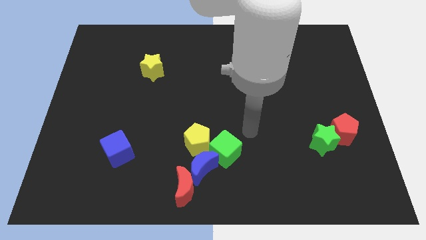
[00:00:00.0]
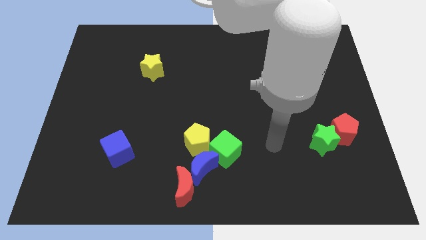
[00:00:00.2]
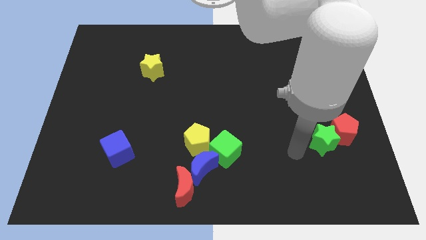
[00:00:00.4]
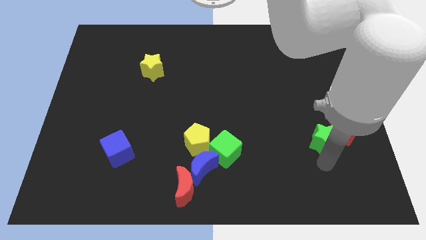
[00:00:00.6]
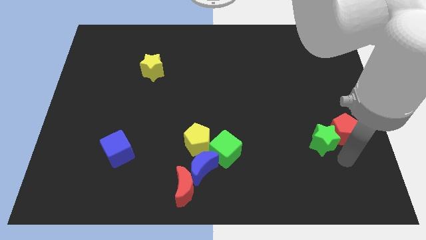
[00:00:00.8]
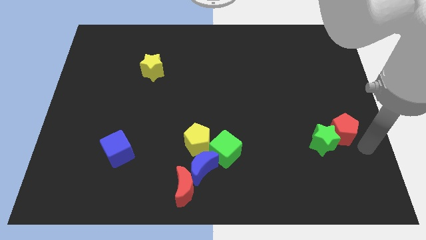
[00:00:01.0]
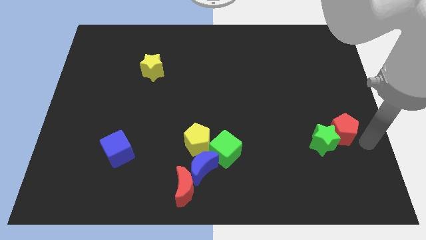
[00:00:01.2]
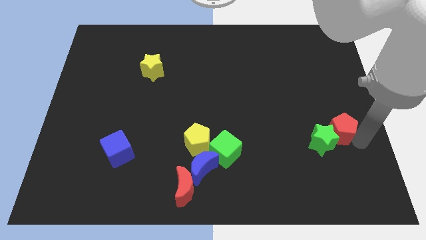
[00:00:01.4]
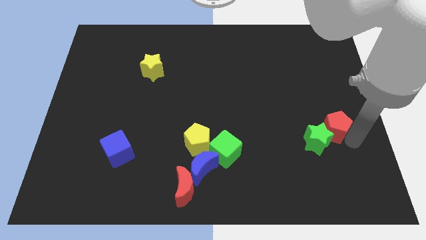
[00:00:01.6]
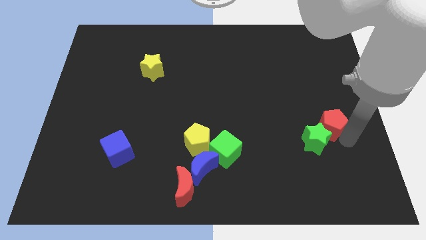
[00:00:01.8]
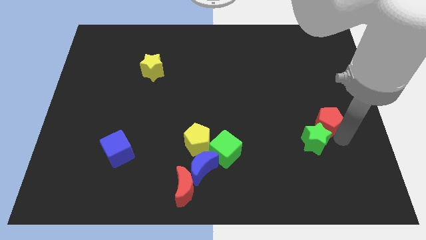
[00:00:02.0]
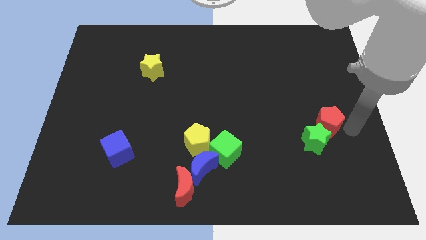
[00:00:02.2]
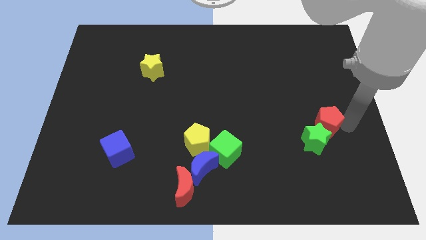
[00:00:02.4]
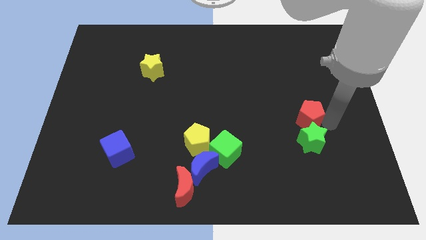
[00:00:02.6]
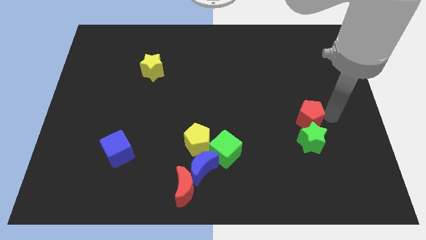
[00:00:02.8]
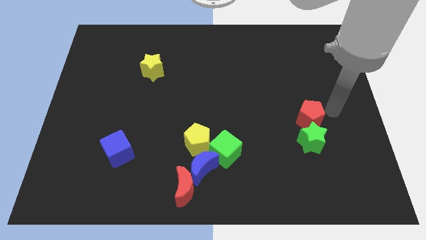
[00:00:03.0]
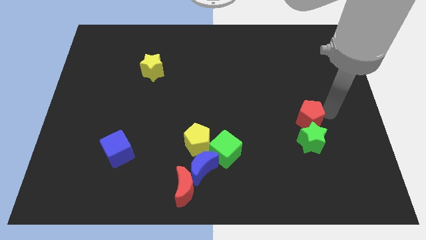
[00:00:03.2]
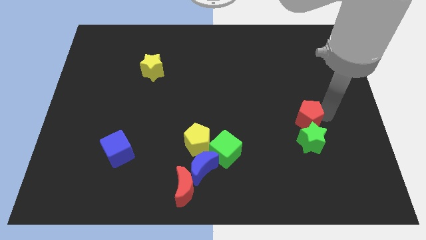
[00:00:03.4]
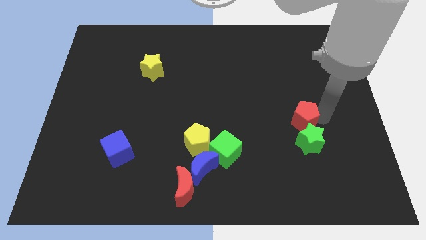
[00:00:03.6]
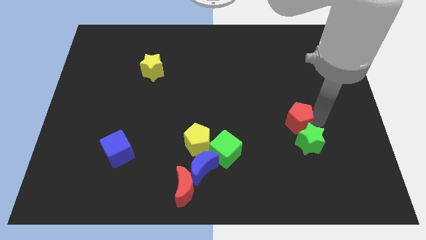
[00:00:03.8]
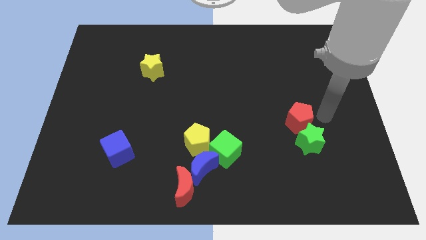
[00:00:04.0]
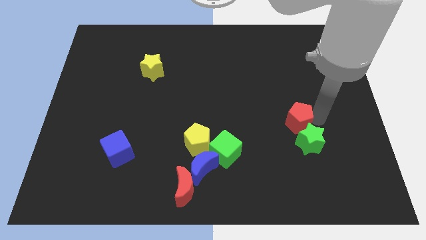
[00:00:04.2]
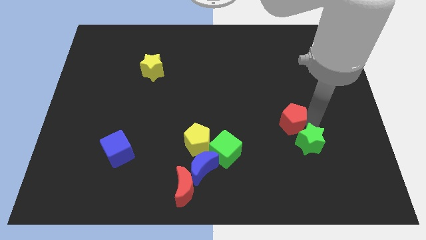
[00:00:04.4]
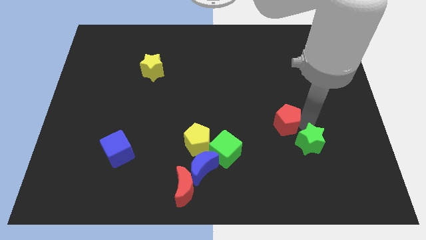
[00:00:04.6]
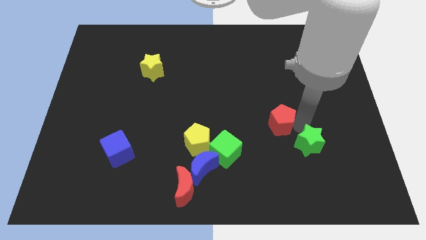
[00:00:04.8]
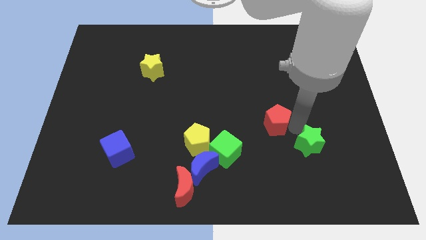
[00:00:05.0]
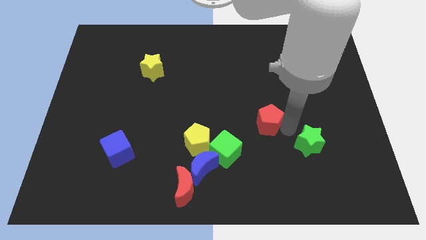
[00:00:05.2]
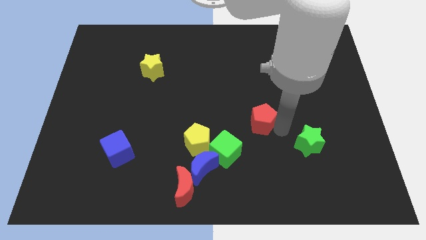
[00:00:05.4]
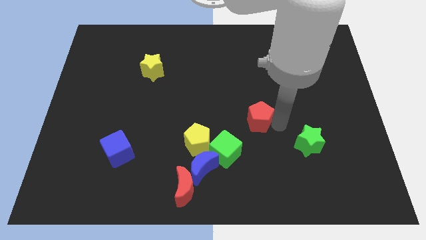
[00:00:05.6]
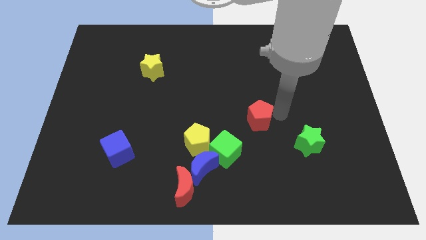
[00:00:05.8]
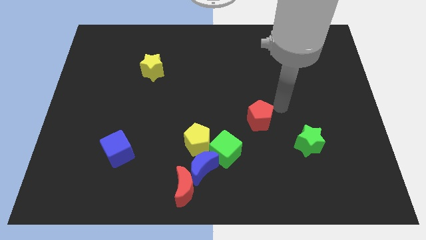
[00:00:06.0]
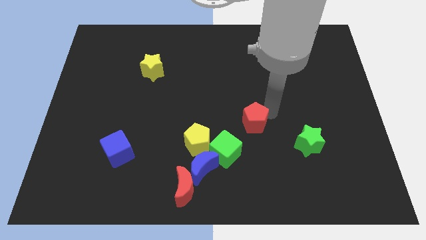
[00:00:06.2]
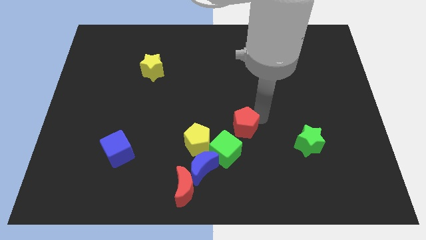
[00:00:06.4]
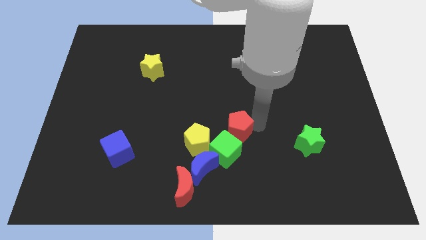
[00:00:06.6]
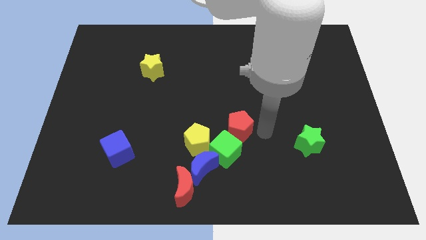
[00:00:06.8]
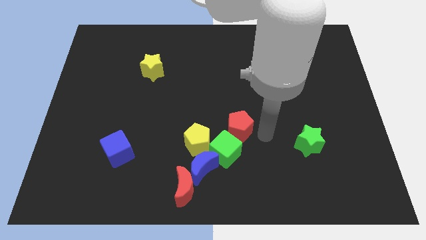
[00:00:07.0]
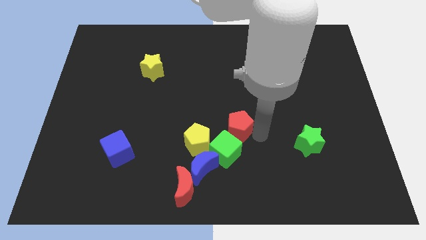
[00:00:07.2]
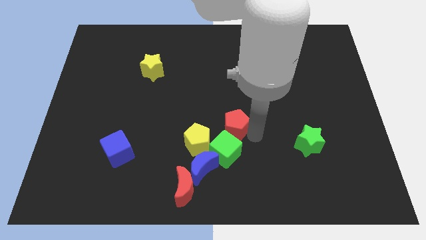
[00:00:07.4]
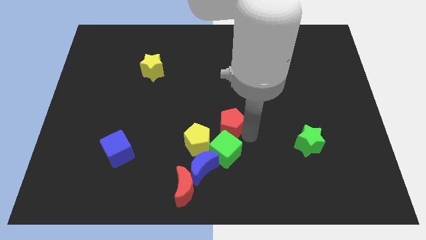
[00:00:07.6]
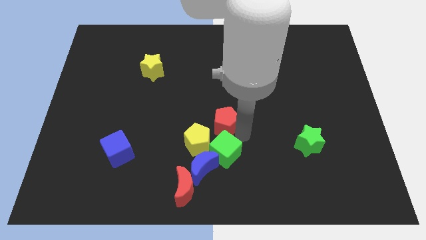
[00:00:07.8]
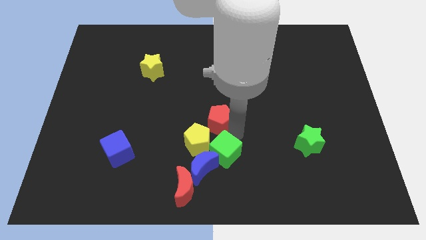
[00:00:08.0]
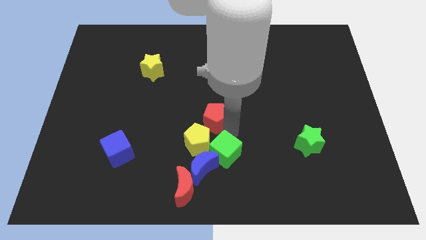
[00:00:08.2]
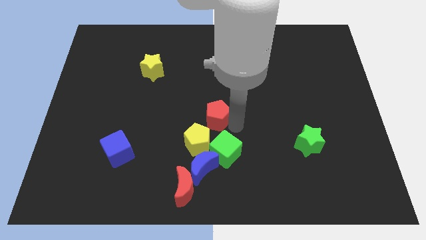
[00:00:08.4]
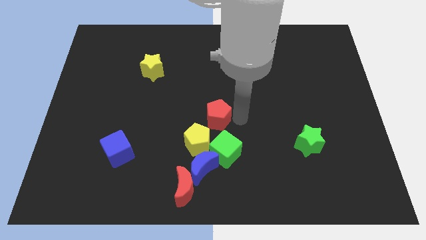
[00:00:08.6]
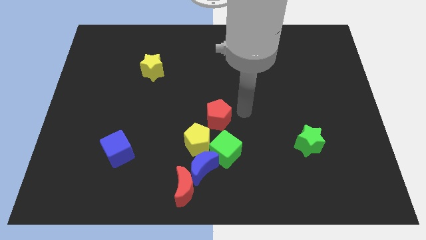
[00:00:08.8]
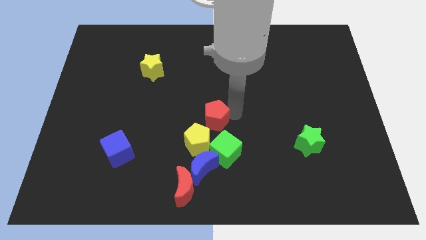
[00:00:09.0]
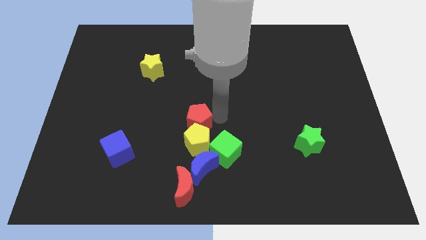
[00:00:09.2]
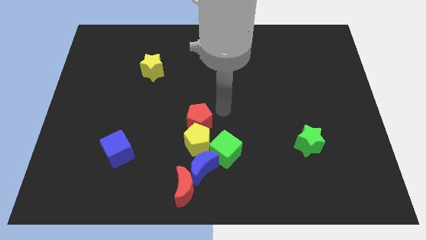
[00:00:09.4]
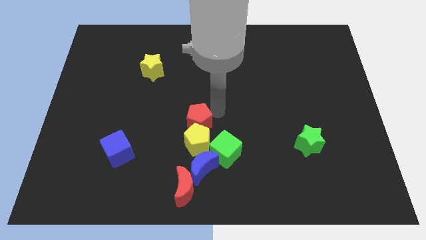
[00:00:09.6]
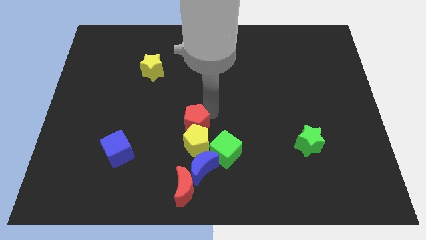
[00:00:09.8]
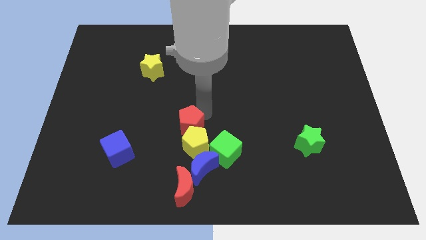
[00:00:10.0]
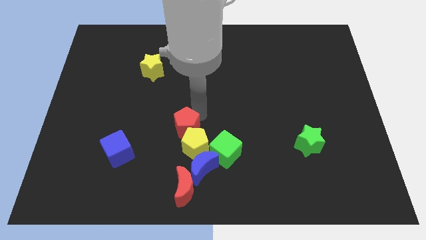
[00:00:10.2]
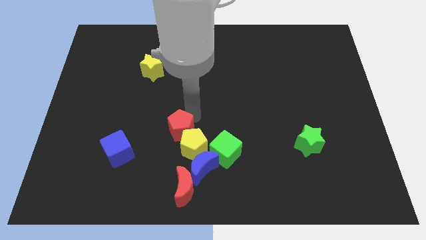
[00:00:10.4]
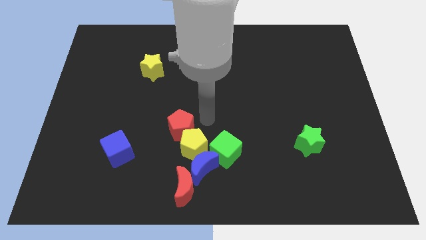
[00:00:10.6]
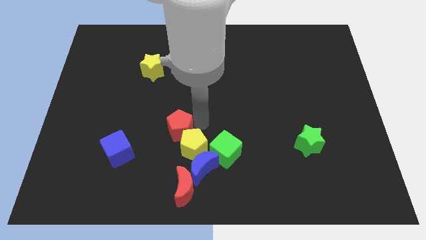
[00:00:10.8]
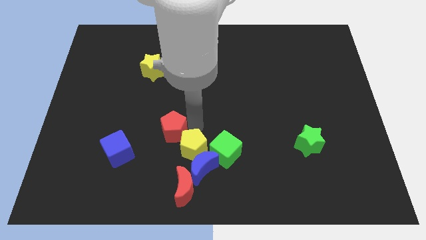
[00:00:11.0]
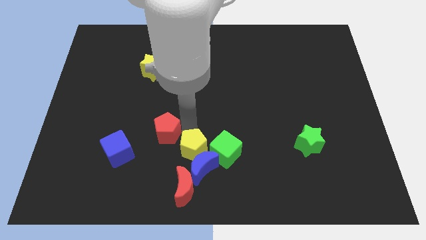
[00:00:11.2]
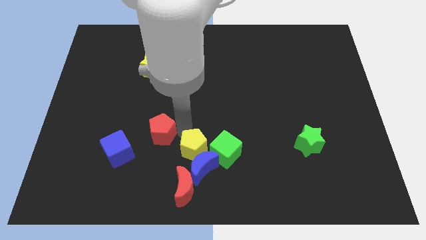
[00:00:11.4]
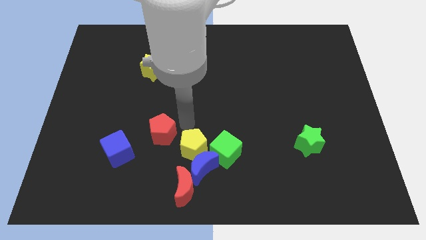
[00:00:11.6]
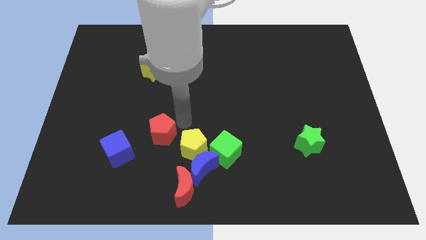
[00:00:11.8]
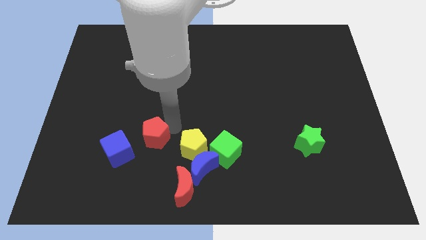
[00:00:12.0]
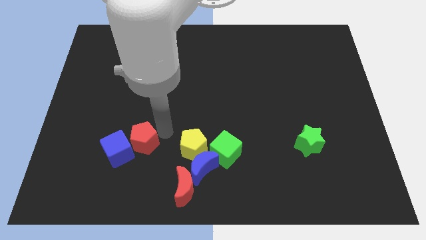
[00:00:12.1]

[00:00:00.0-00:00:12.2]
move the red pentagon close to the blue cube

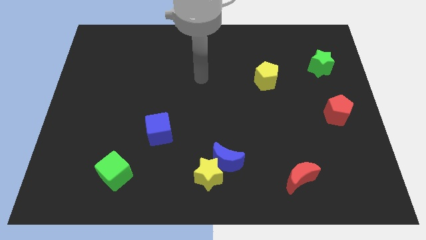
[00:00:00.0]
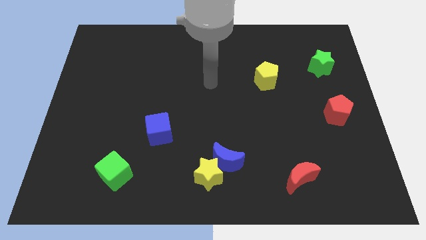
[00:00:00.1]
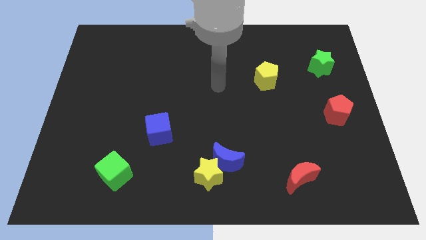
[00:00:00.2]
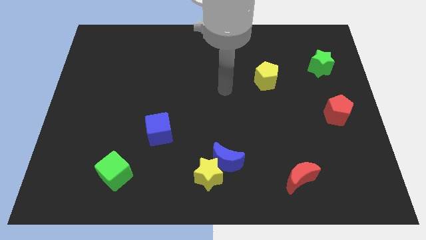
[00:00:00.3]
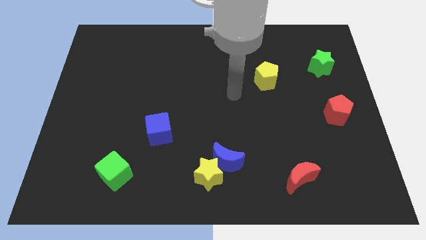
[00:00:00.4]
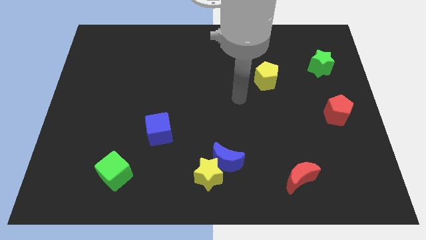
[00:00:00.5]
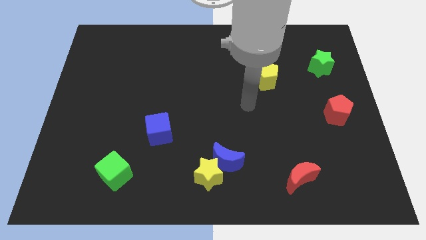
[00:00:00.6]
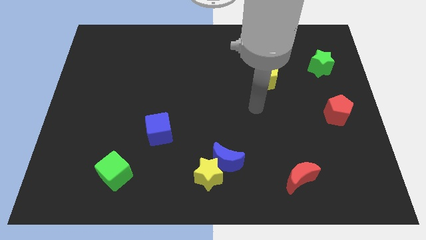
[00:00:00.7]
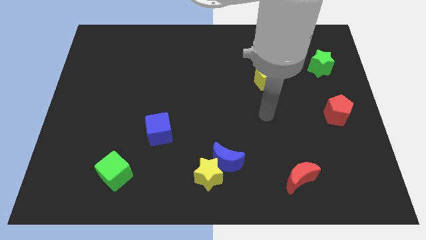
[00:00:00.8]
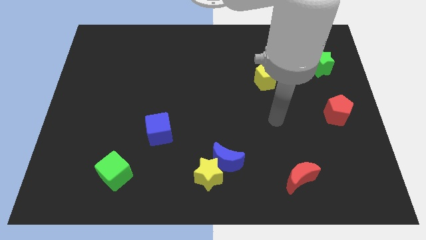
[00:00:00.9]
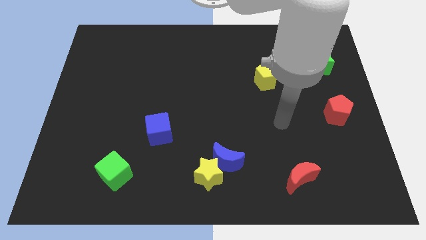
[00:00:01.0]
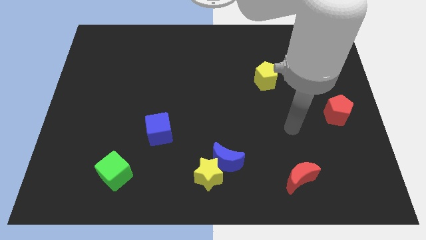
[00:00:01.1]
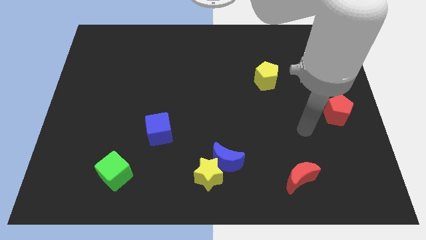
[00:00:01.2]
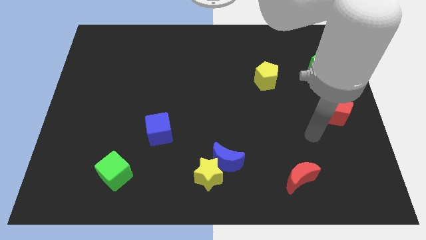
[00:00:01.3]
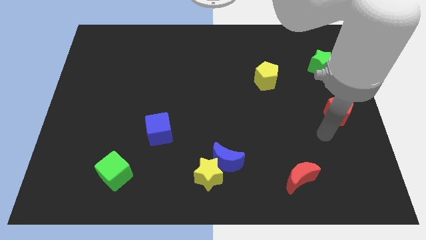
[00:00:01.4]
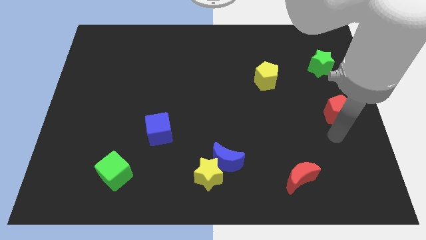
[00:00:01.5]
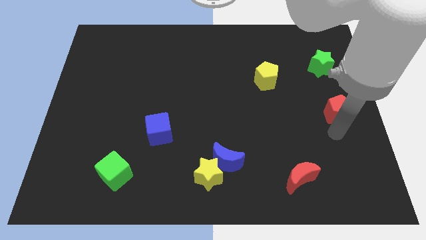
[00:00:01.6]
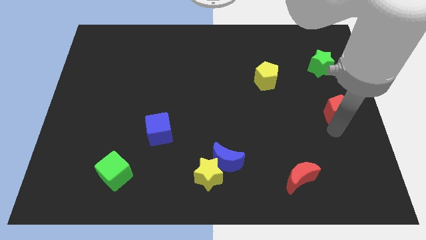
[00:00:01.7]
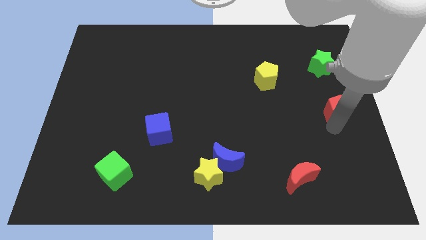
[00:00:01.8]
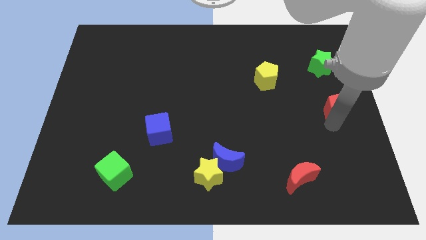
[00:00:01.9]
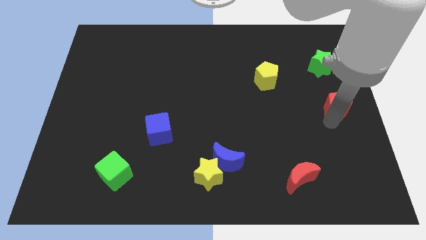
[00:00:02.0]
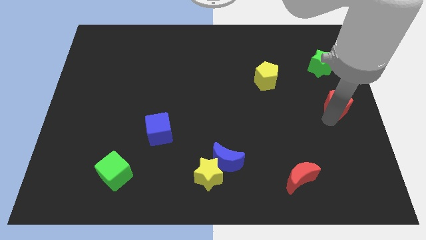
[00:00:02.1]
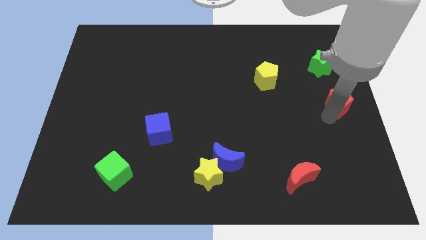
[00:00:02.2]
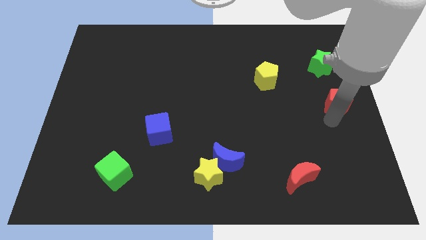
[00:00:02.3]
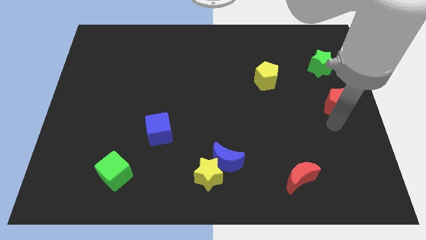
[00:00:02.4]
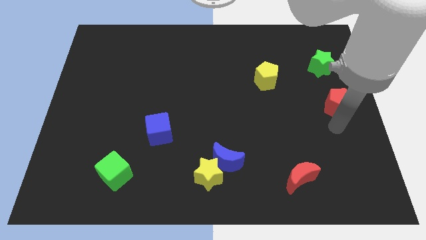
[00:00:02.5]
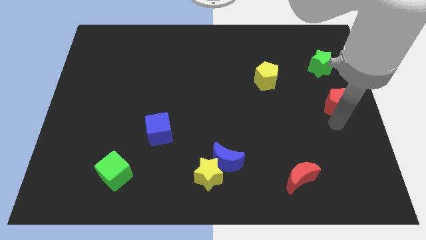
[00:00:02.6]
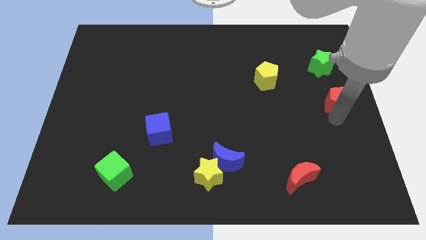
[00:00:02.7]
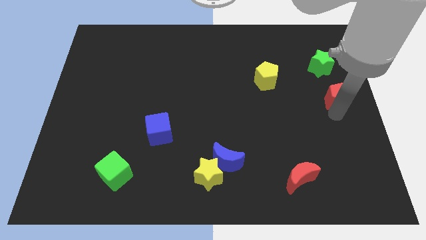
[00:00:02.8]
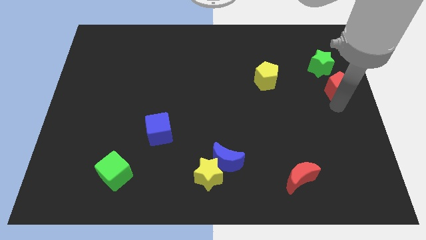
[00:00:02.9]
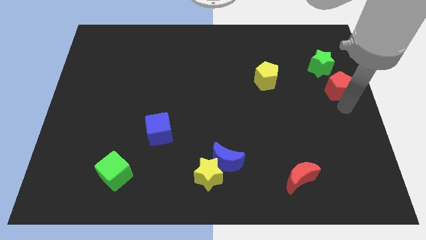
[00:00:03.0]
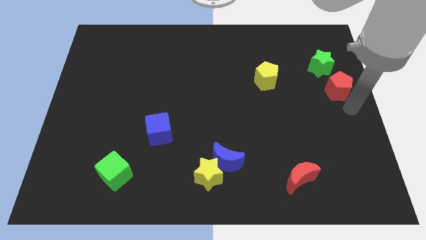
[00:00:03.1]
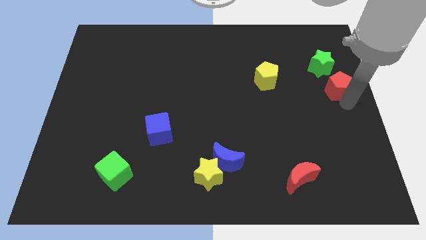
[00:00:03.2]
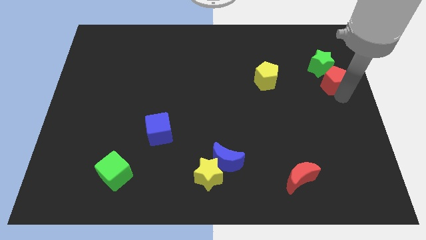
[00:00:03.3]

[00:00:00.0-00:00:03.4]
move the red pentagon close to the green star
